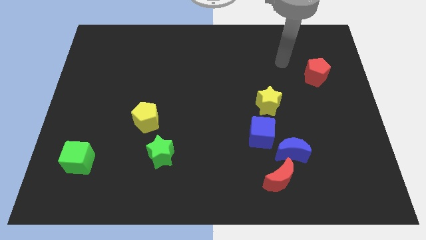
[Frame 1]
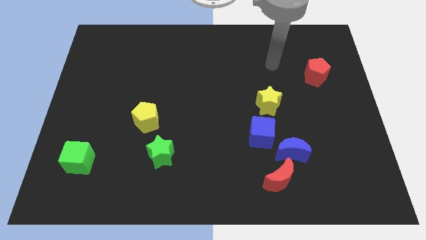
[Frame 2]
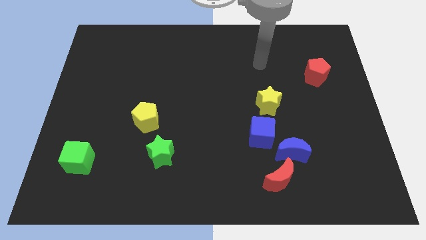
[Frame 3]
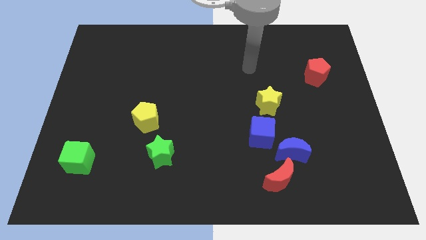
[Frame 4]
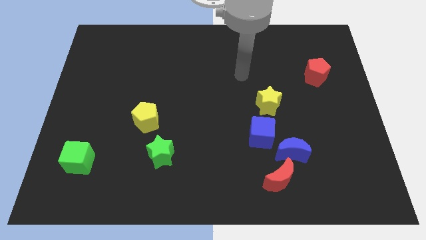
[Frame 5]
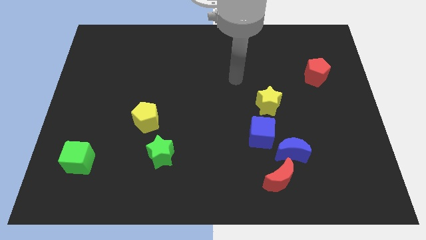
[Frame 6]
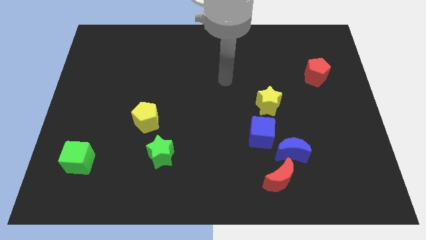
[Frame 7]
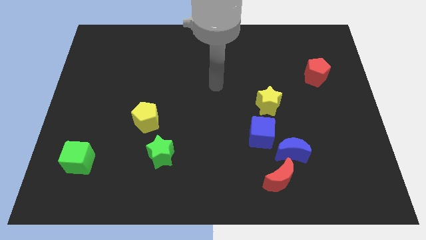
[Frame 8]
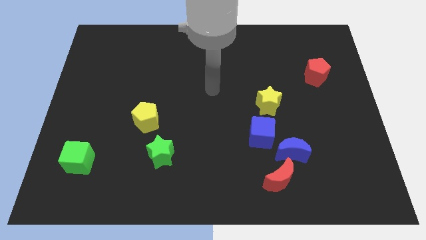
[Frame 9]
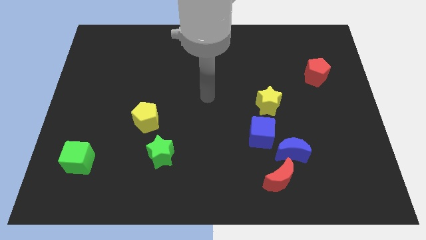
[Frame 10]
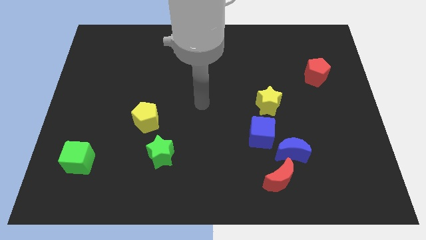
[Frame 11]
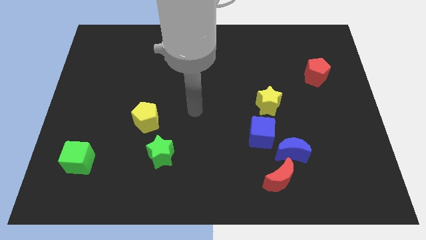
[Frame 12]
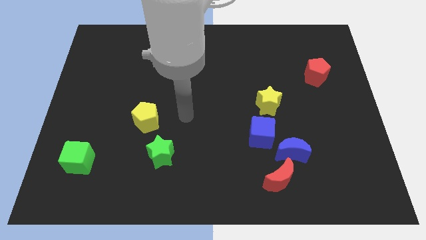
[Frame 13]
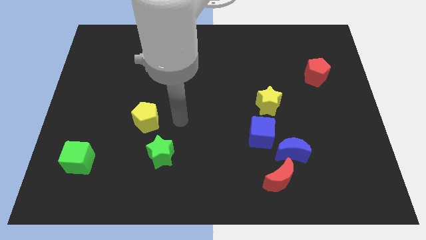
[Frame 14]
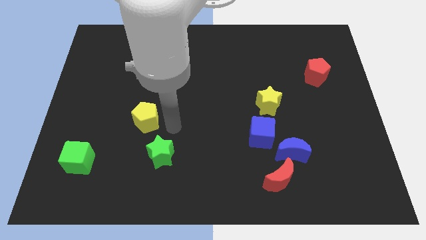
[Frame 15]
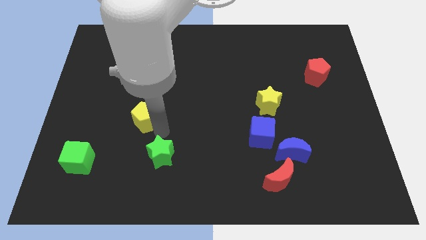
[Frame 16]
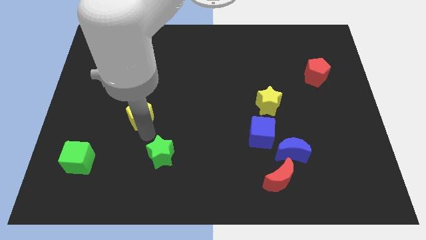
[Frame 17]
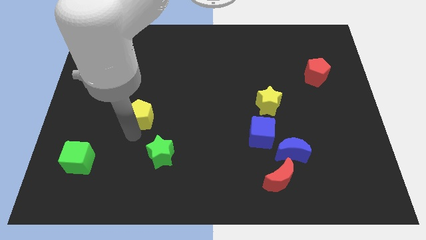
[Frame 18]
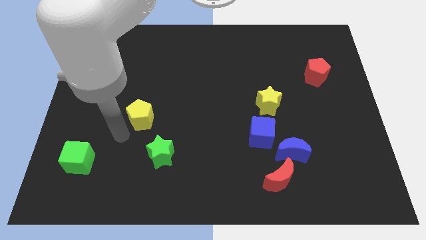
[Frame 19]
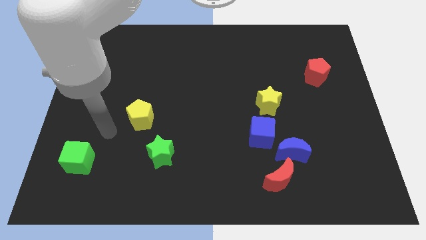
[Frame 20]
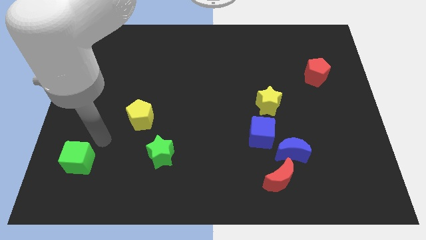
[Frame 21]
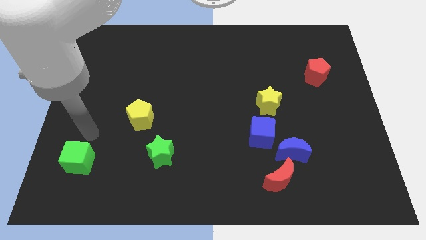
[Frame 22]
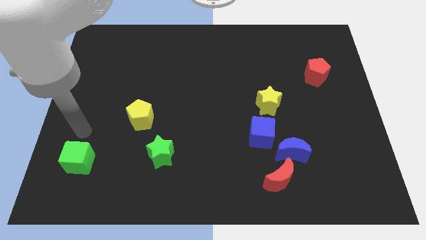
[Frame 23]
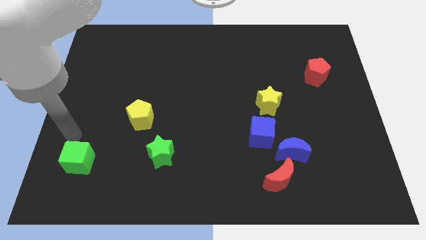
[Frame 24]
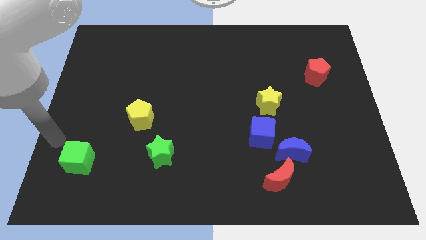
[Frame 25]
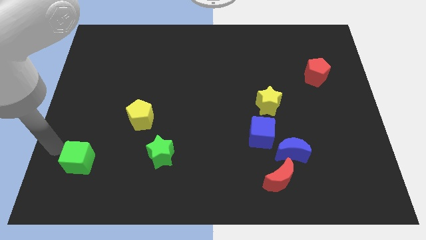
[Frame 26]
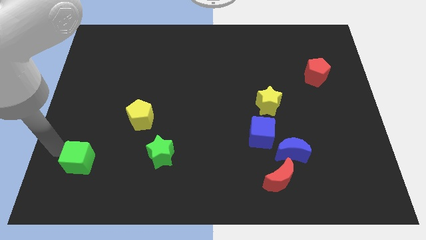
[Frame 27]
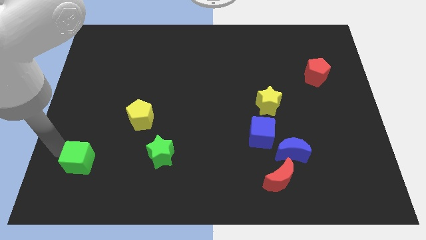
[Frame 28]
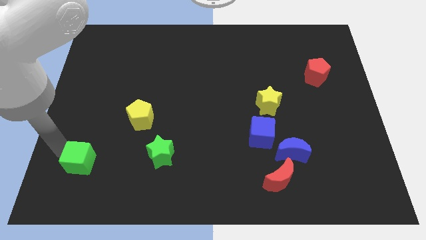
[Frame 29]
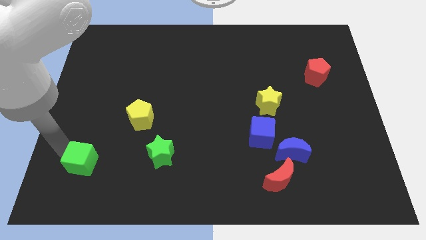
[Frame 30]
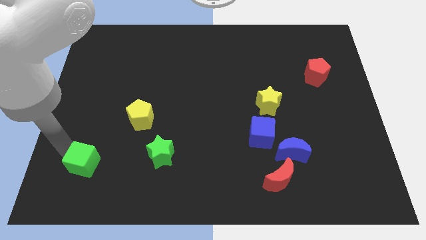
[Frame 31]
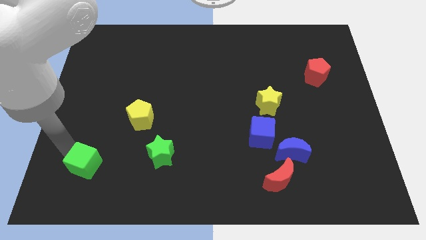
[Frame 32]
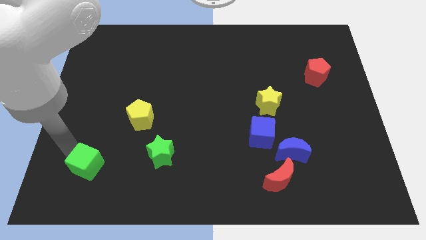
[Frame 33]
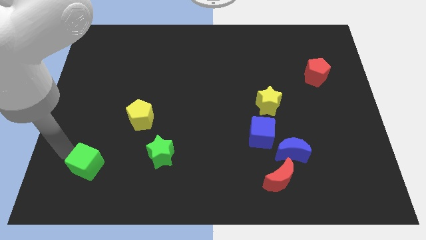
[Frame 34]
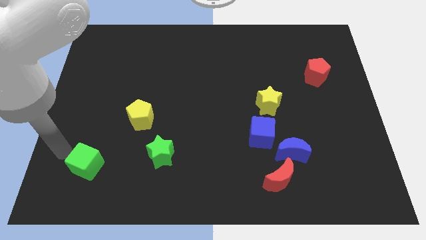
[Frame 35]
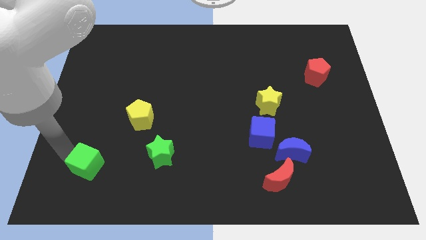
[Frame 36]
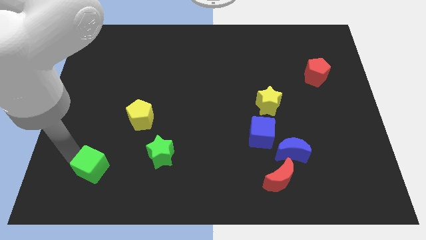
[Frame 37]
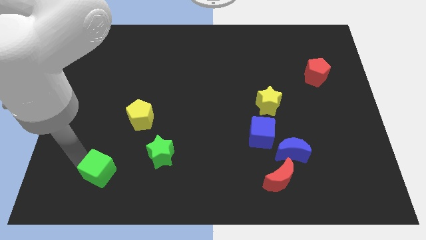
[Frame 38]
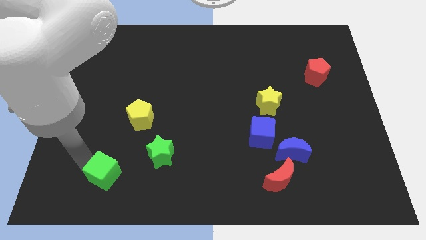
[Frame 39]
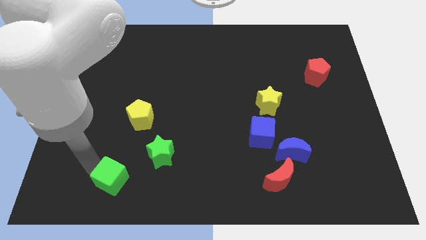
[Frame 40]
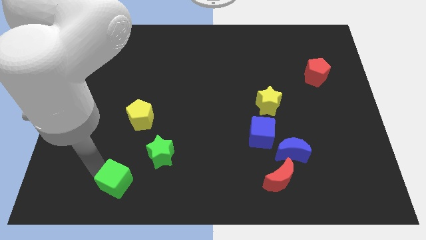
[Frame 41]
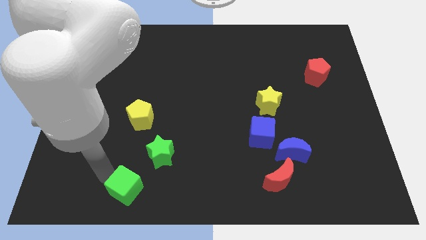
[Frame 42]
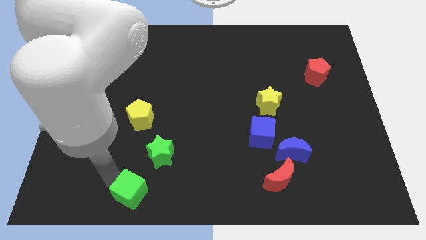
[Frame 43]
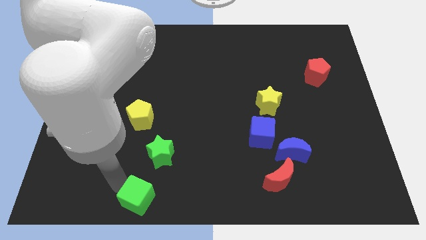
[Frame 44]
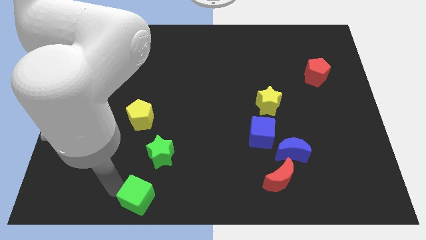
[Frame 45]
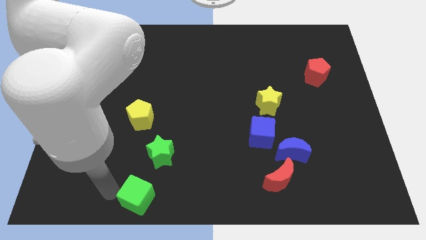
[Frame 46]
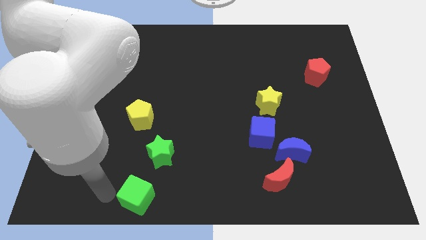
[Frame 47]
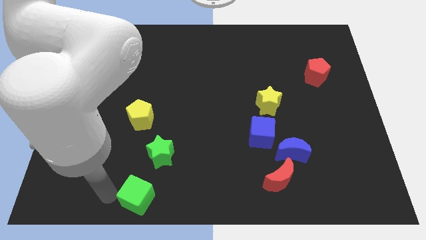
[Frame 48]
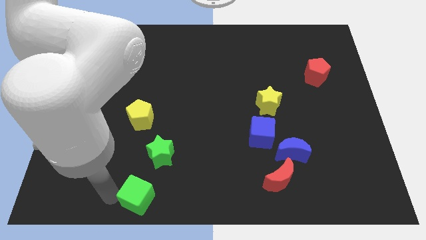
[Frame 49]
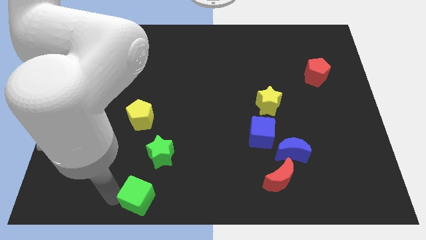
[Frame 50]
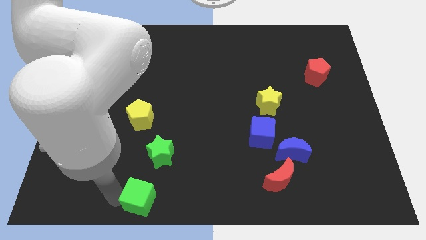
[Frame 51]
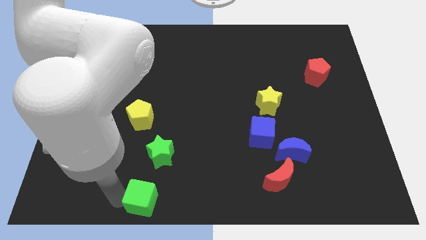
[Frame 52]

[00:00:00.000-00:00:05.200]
move the green cube to the bottom side
